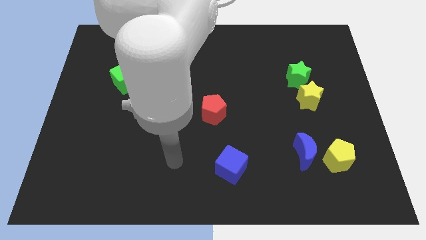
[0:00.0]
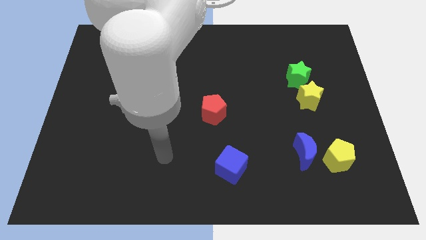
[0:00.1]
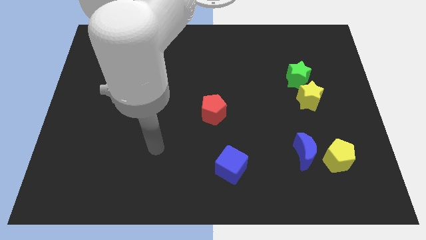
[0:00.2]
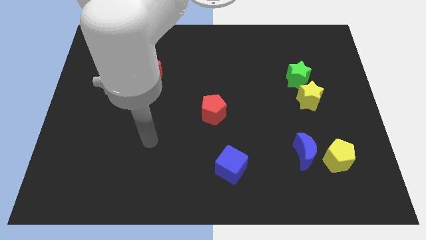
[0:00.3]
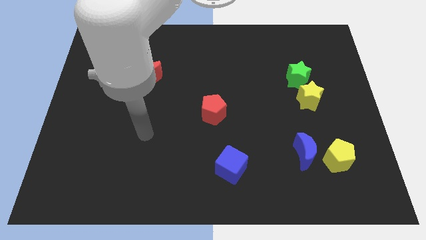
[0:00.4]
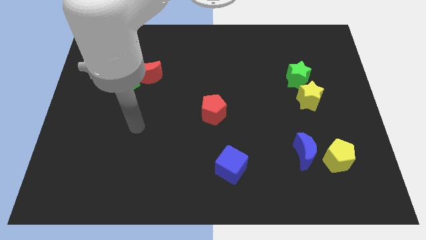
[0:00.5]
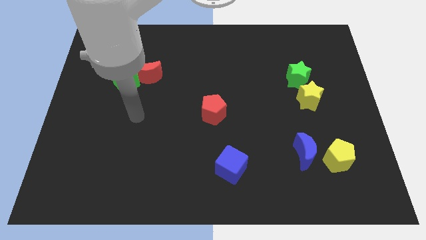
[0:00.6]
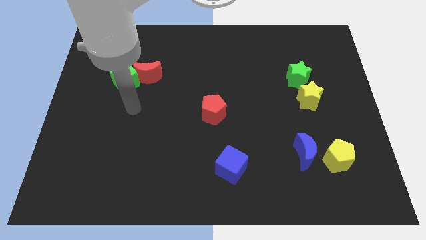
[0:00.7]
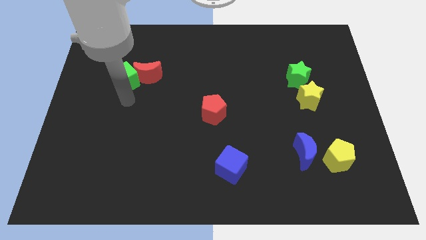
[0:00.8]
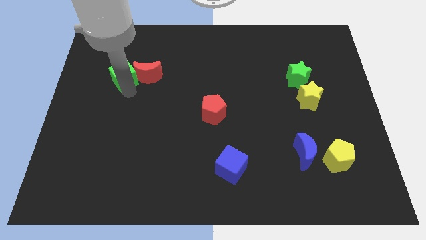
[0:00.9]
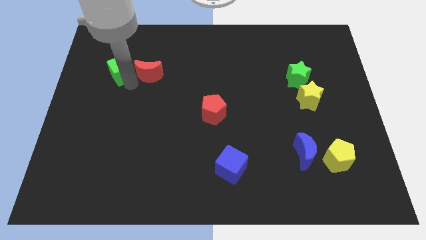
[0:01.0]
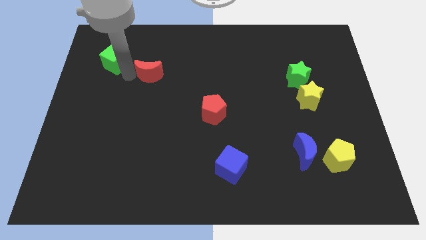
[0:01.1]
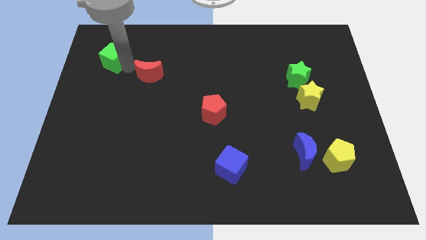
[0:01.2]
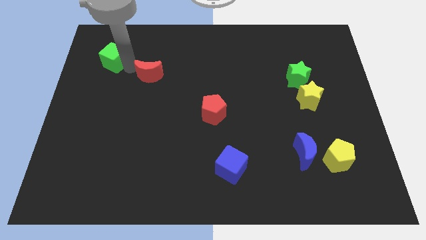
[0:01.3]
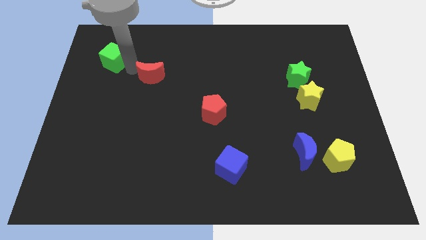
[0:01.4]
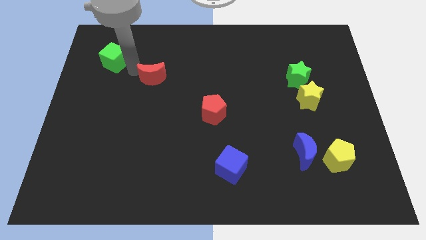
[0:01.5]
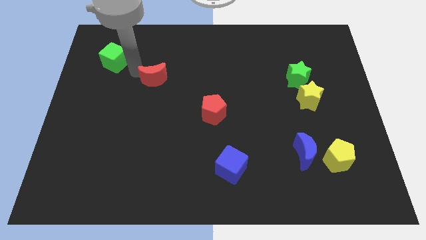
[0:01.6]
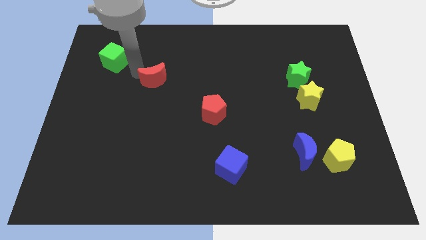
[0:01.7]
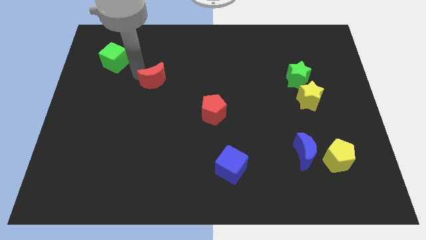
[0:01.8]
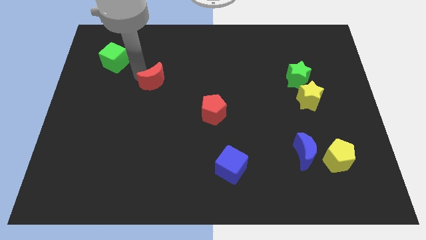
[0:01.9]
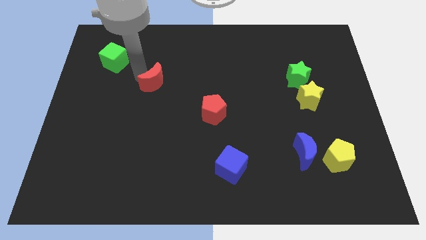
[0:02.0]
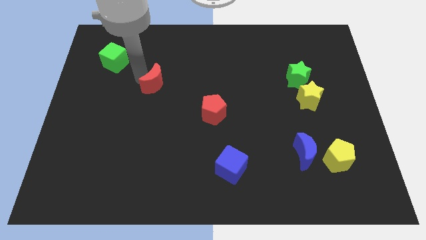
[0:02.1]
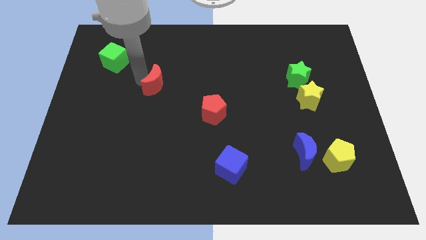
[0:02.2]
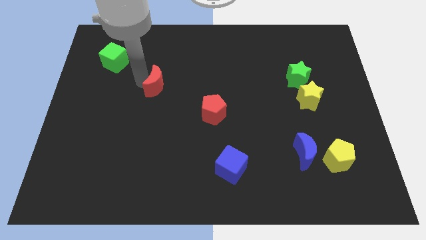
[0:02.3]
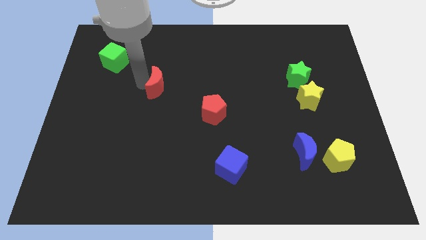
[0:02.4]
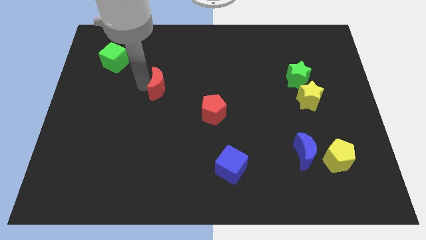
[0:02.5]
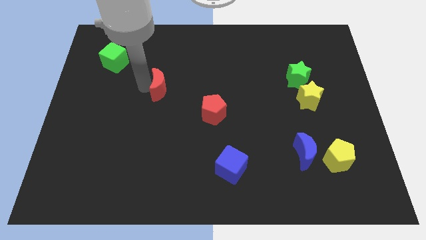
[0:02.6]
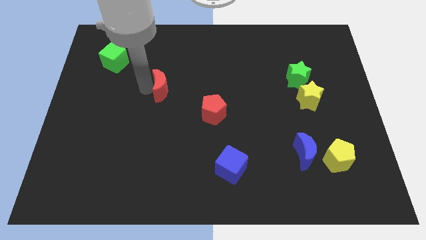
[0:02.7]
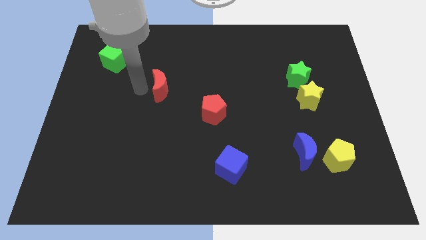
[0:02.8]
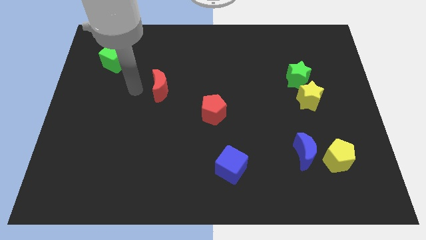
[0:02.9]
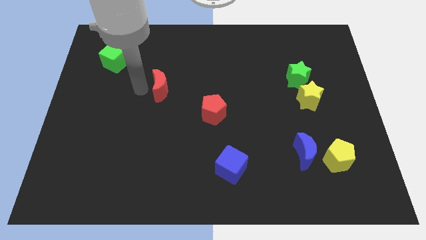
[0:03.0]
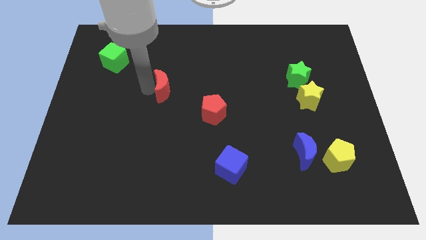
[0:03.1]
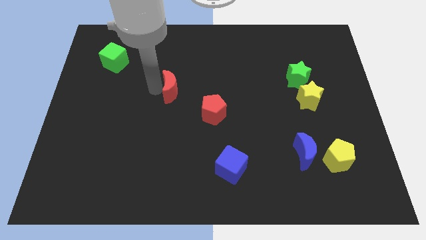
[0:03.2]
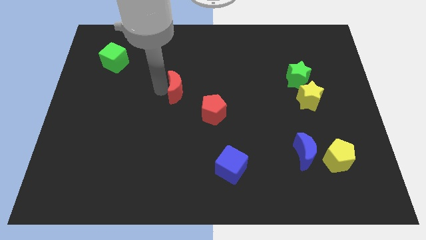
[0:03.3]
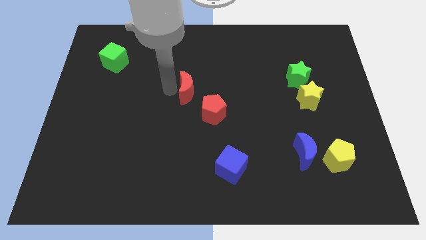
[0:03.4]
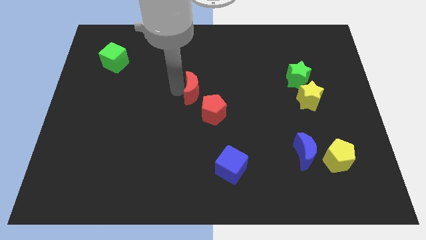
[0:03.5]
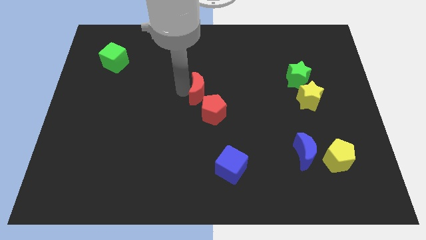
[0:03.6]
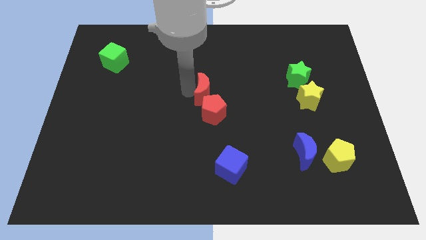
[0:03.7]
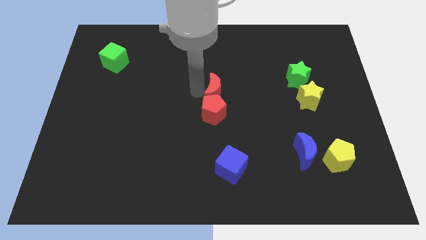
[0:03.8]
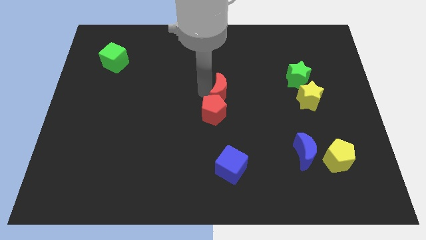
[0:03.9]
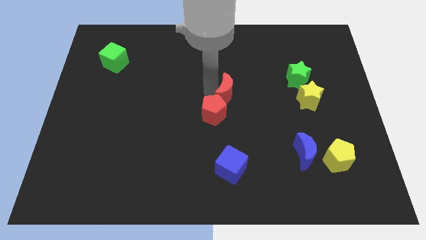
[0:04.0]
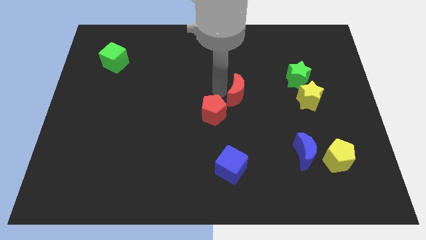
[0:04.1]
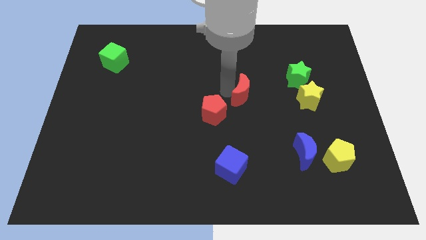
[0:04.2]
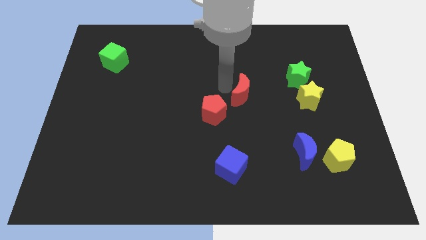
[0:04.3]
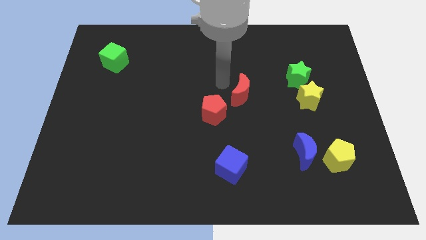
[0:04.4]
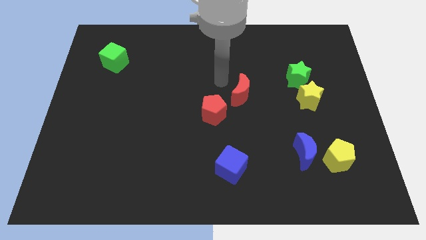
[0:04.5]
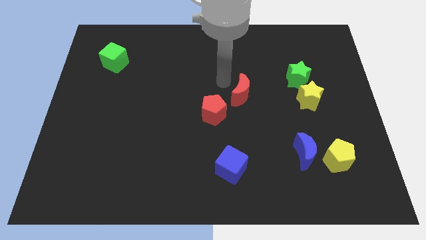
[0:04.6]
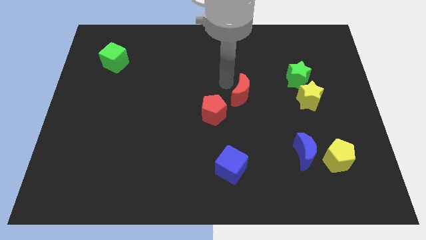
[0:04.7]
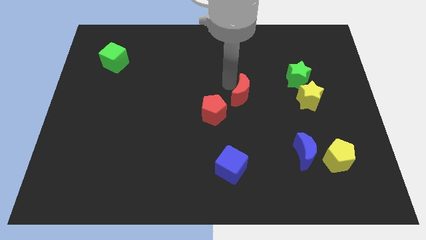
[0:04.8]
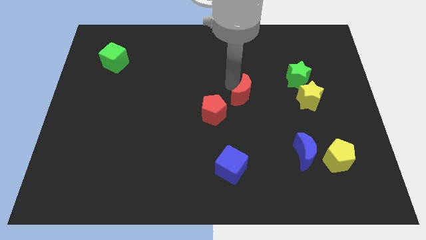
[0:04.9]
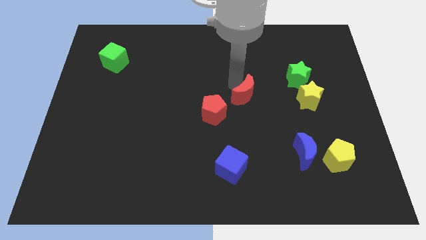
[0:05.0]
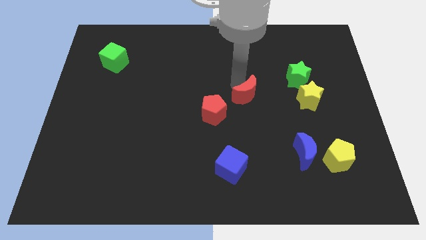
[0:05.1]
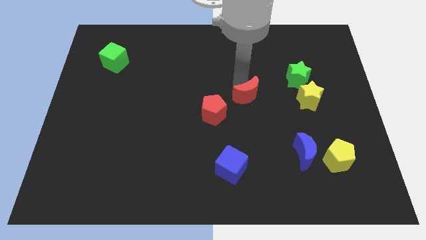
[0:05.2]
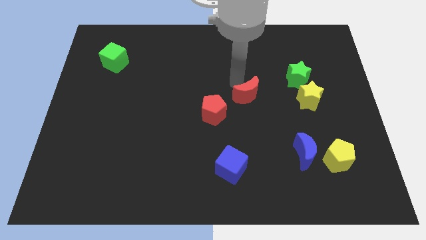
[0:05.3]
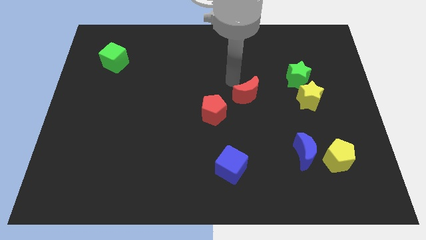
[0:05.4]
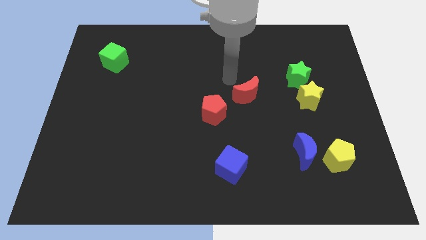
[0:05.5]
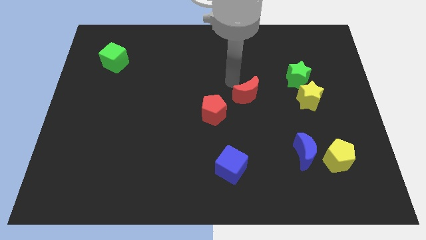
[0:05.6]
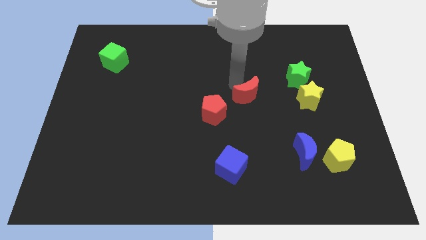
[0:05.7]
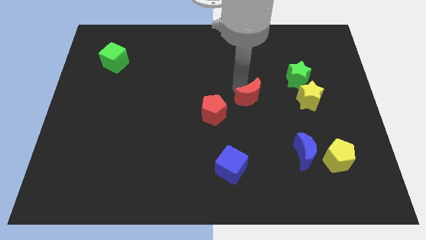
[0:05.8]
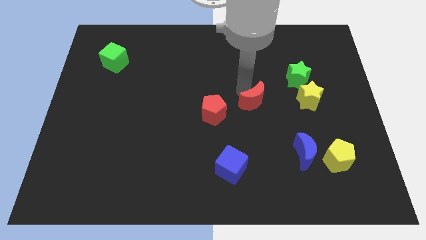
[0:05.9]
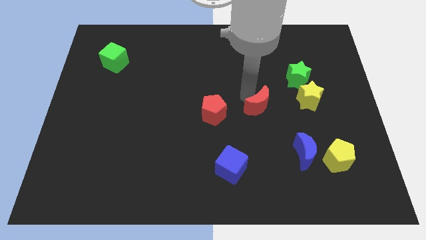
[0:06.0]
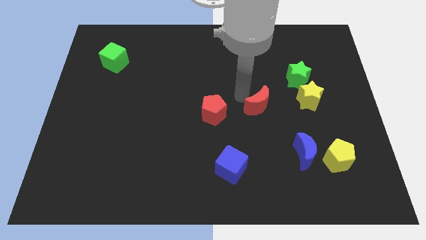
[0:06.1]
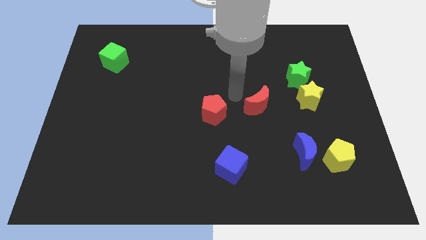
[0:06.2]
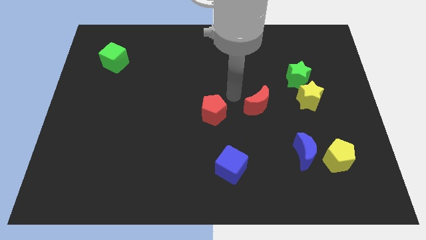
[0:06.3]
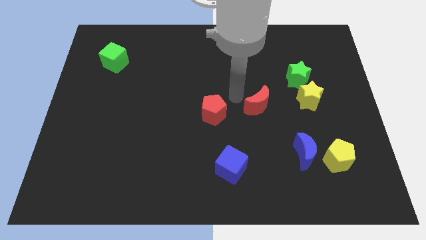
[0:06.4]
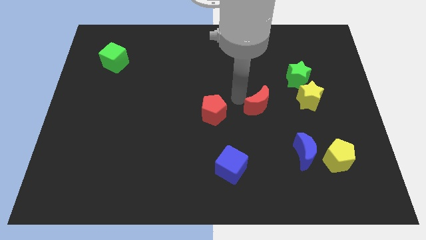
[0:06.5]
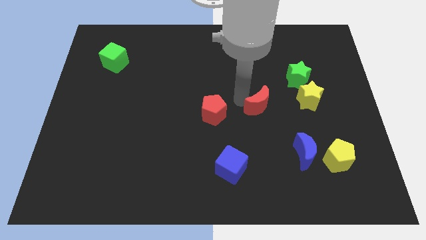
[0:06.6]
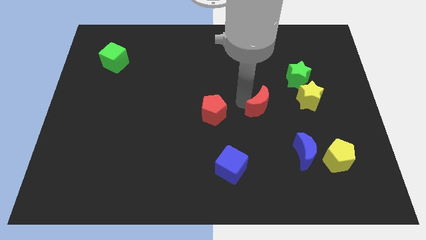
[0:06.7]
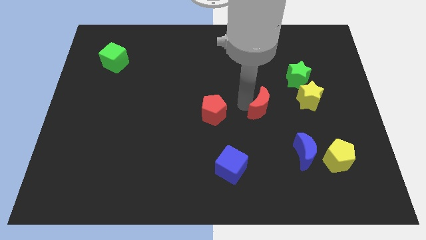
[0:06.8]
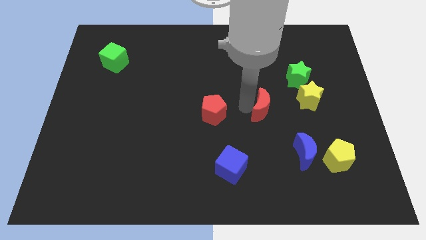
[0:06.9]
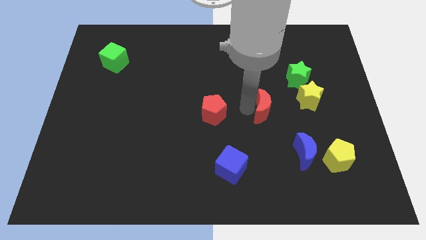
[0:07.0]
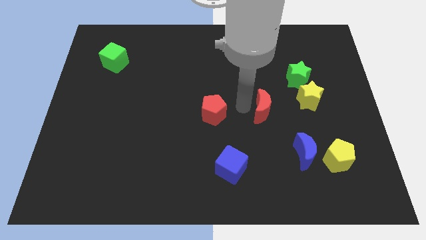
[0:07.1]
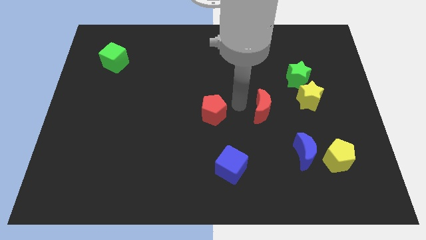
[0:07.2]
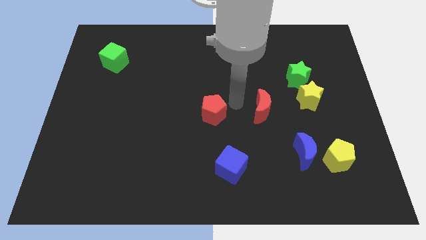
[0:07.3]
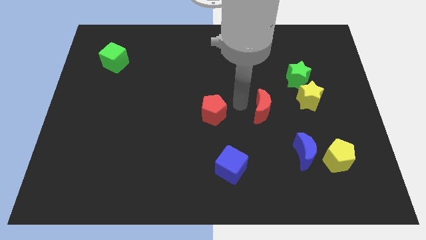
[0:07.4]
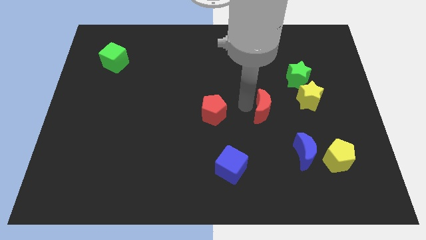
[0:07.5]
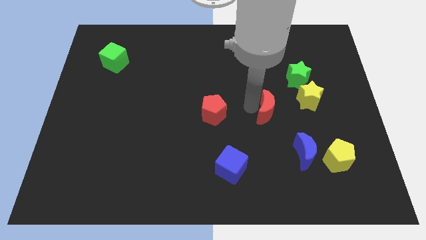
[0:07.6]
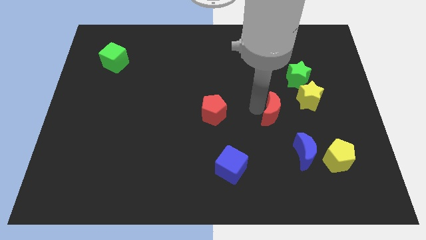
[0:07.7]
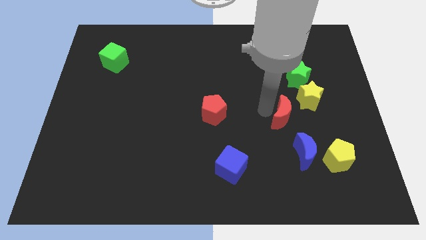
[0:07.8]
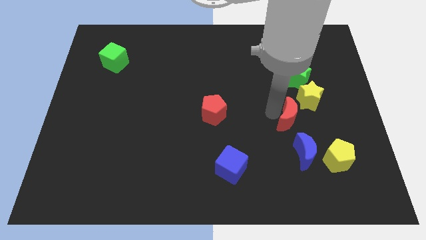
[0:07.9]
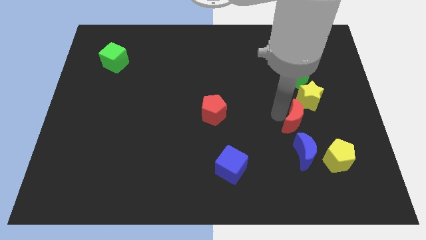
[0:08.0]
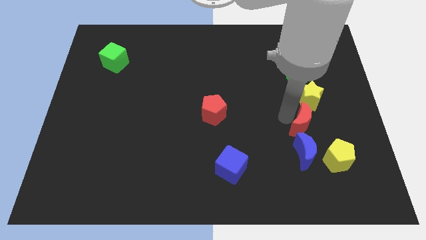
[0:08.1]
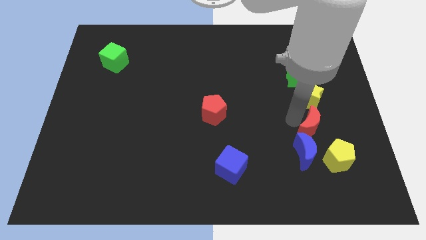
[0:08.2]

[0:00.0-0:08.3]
put the red moon to the top right side of the blue moon
